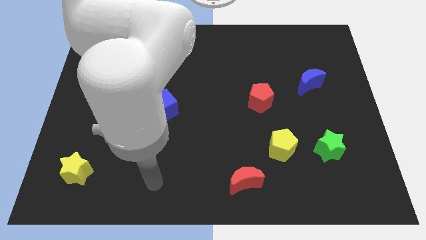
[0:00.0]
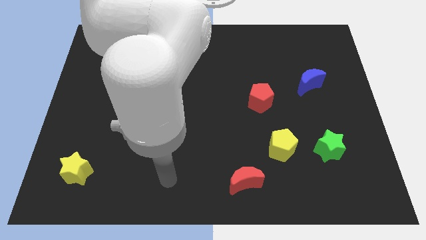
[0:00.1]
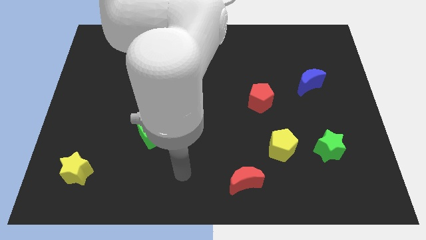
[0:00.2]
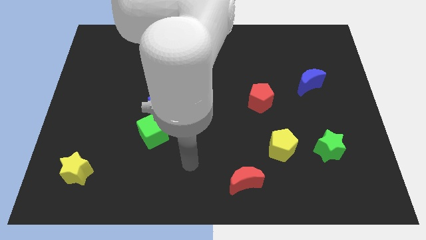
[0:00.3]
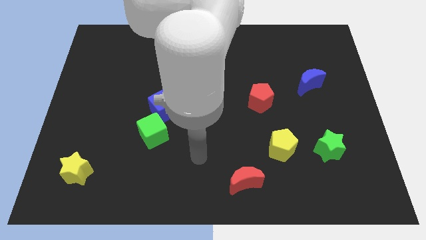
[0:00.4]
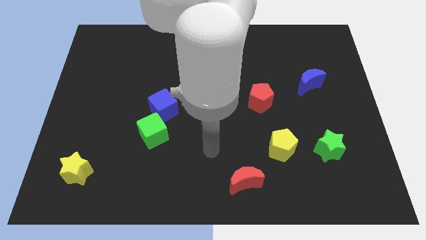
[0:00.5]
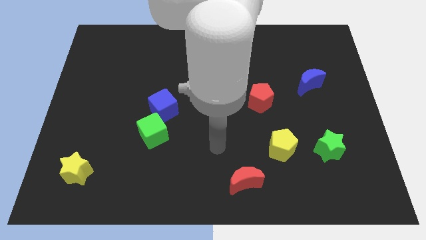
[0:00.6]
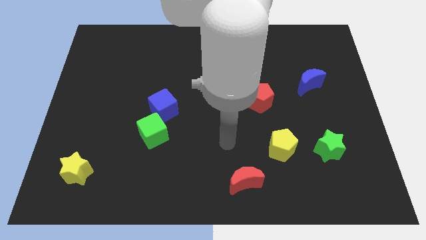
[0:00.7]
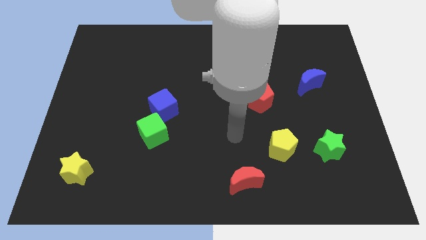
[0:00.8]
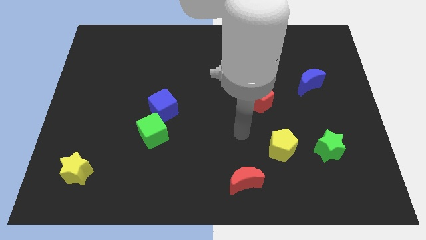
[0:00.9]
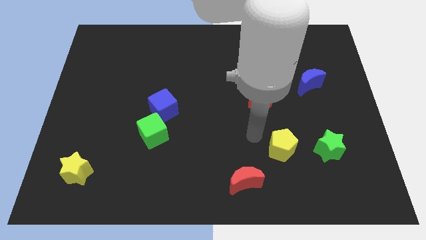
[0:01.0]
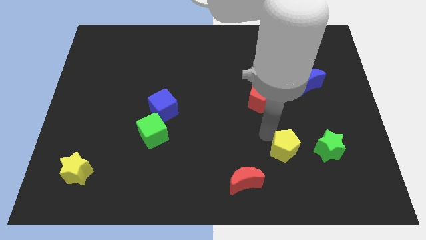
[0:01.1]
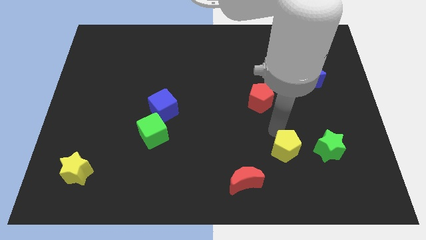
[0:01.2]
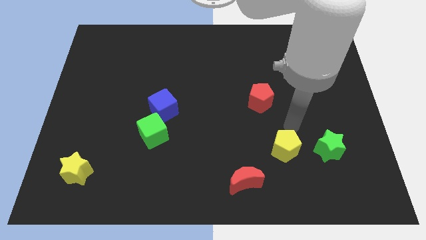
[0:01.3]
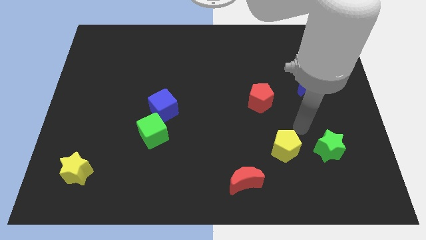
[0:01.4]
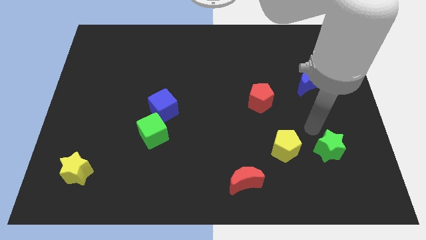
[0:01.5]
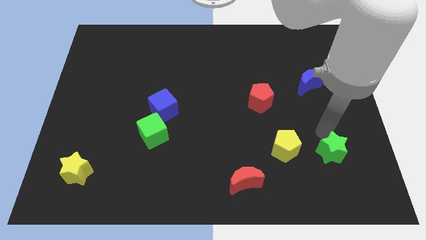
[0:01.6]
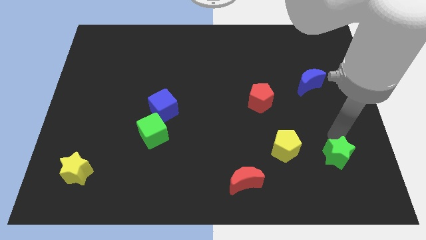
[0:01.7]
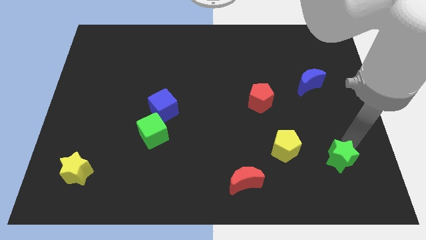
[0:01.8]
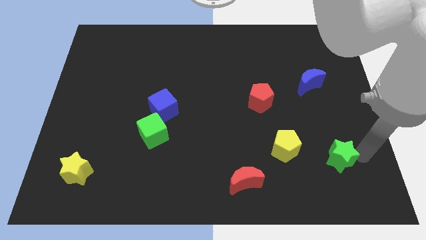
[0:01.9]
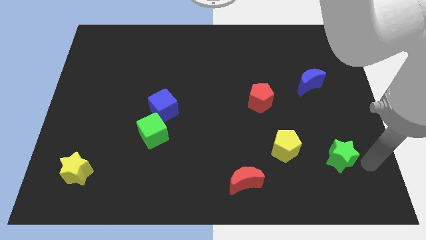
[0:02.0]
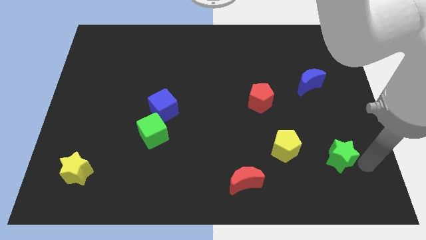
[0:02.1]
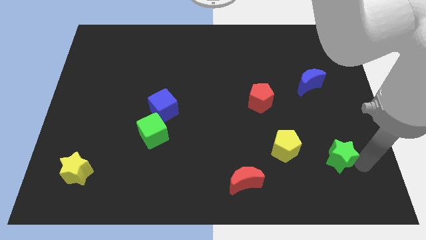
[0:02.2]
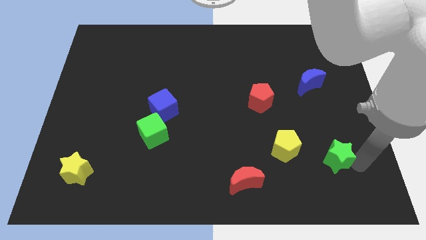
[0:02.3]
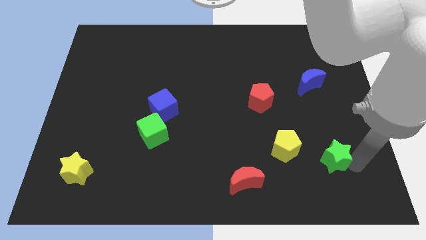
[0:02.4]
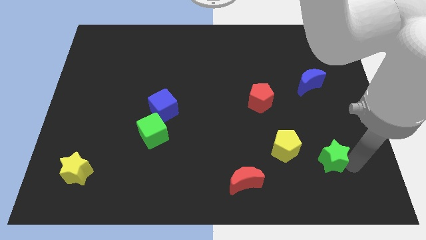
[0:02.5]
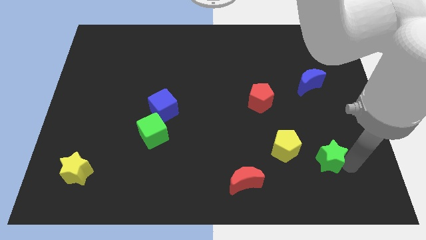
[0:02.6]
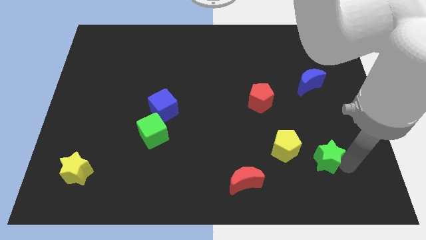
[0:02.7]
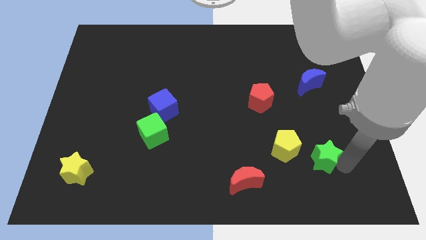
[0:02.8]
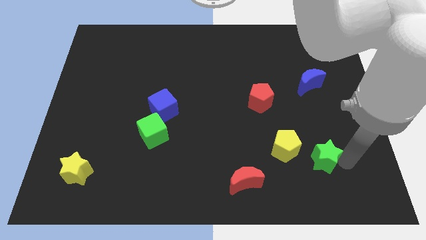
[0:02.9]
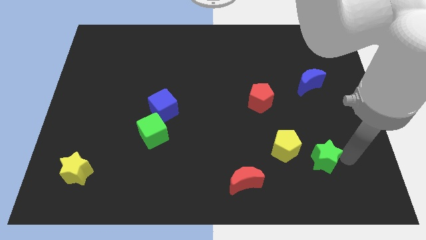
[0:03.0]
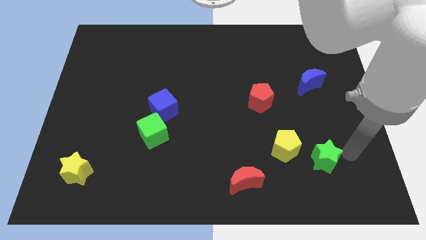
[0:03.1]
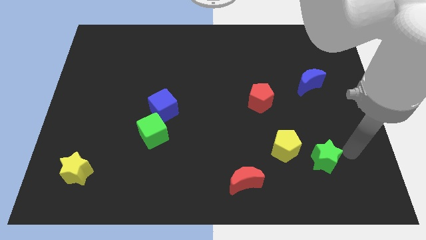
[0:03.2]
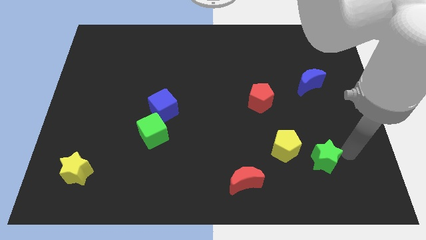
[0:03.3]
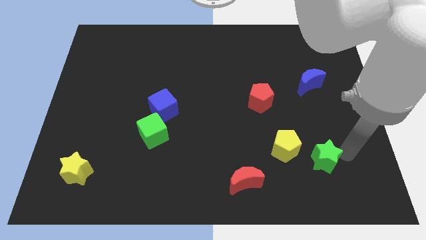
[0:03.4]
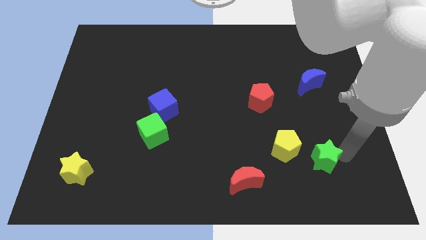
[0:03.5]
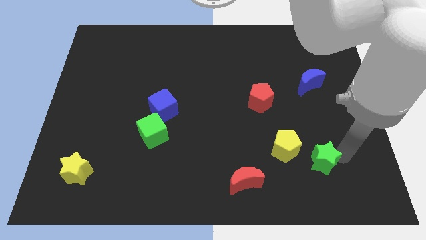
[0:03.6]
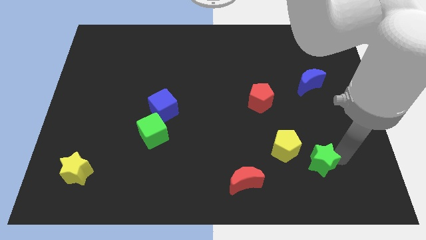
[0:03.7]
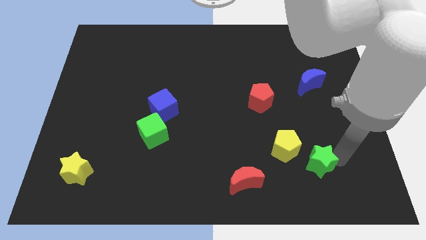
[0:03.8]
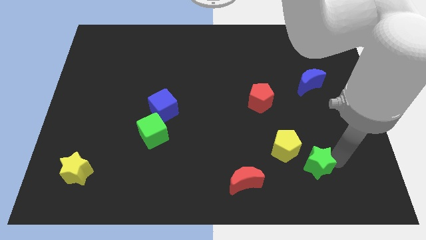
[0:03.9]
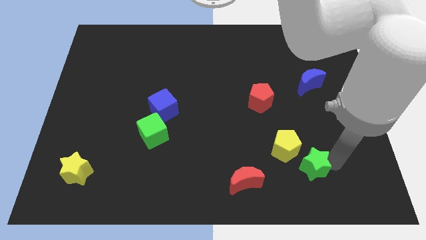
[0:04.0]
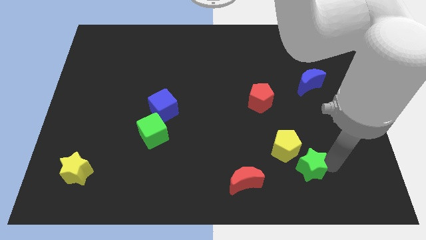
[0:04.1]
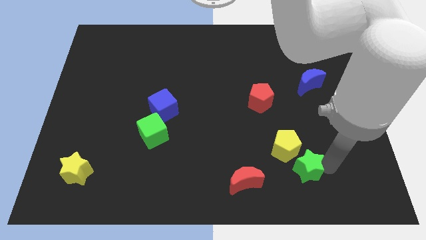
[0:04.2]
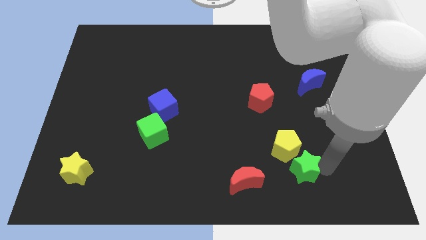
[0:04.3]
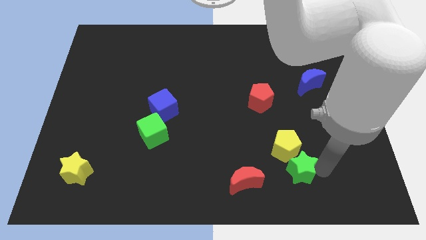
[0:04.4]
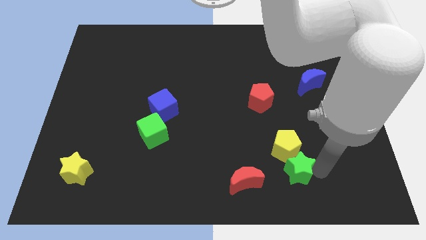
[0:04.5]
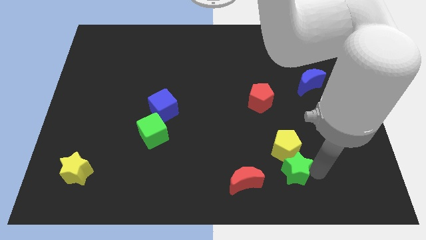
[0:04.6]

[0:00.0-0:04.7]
move the green star to the left a little bit

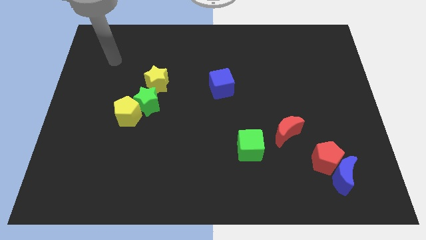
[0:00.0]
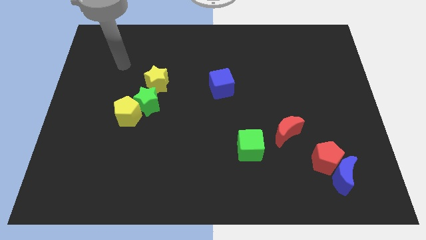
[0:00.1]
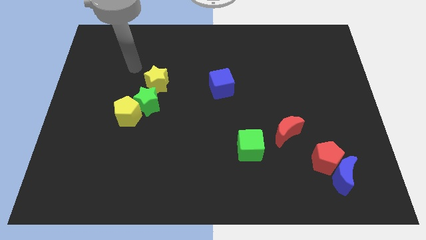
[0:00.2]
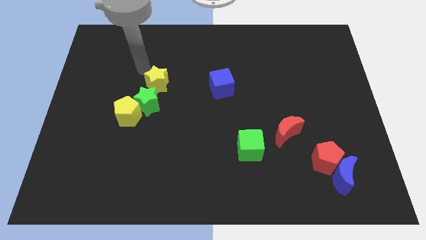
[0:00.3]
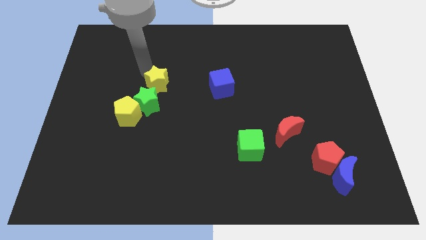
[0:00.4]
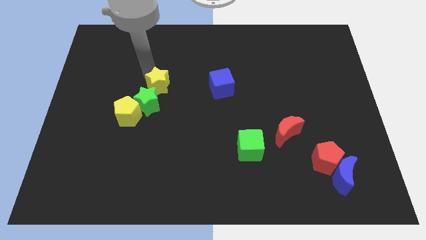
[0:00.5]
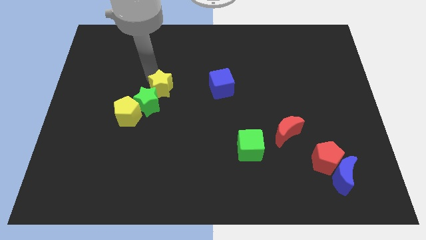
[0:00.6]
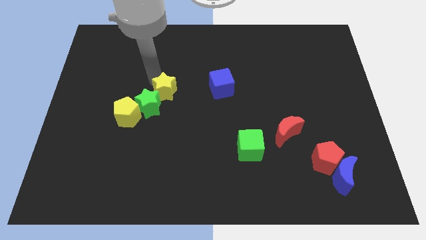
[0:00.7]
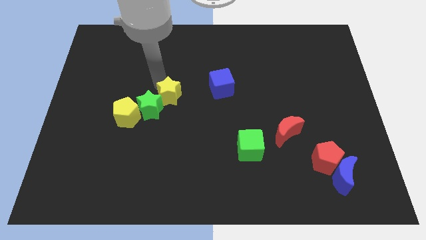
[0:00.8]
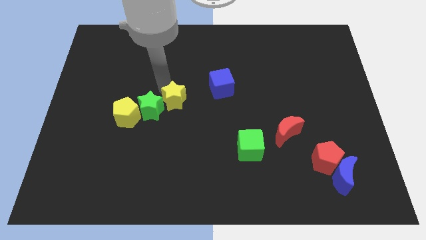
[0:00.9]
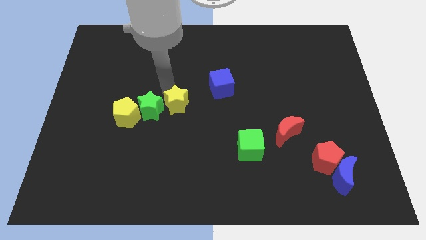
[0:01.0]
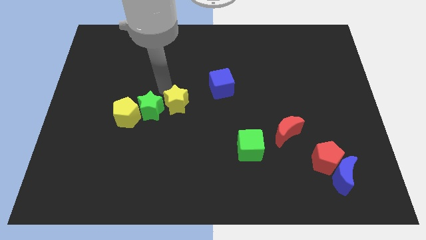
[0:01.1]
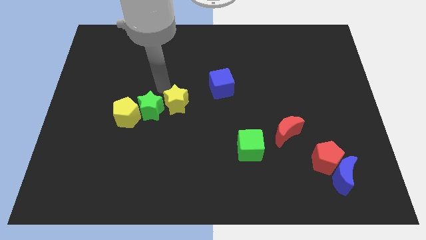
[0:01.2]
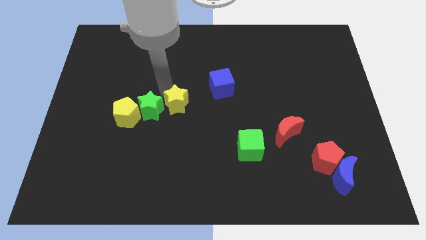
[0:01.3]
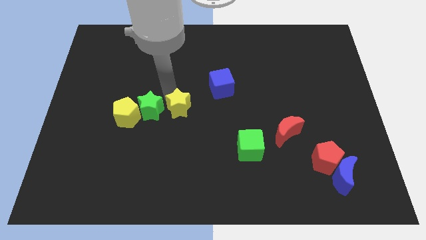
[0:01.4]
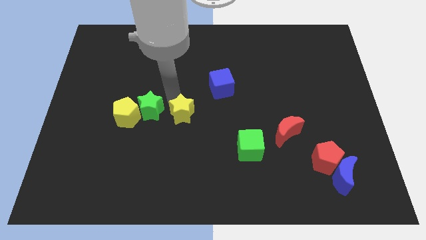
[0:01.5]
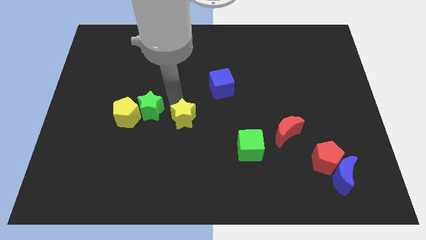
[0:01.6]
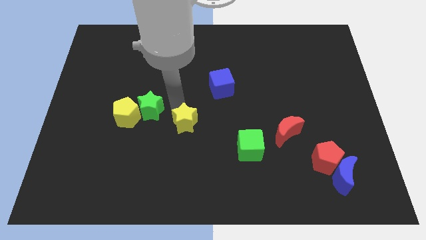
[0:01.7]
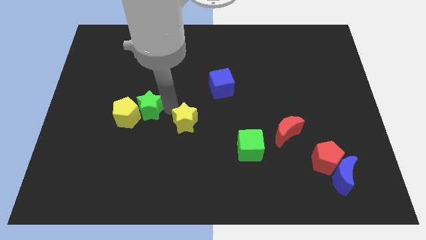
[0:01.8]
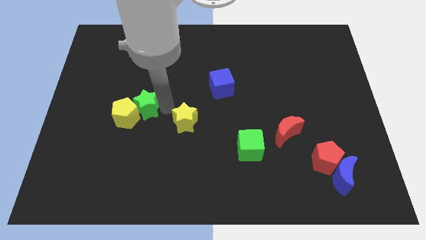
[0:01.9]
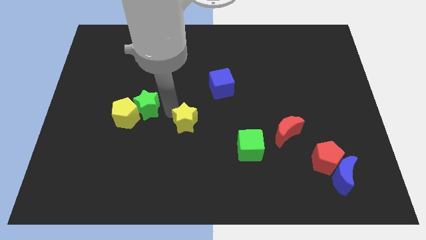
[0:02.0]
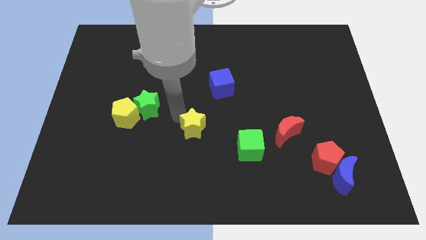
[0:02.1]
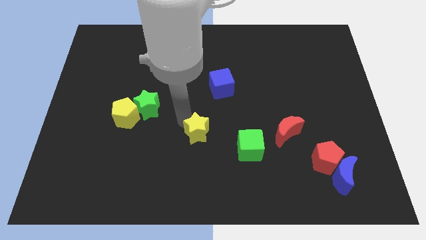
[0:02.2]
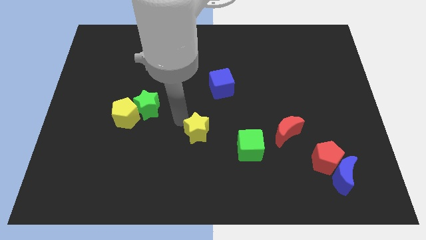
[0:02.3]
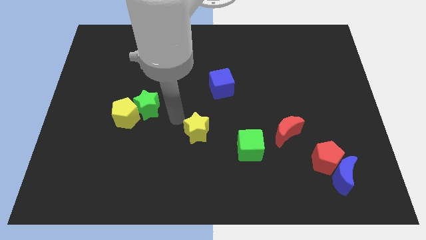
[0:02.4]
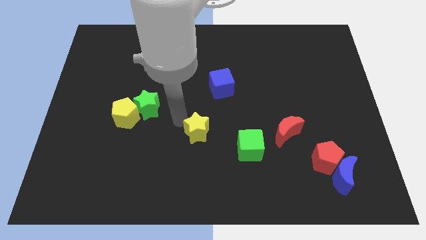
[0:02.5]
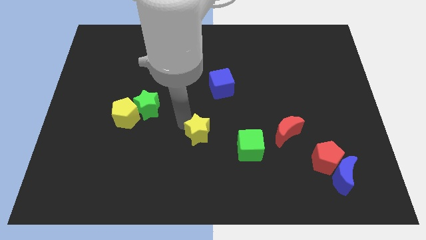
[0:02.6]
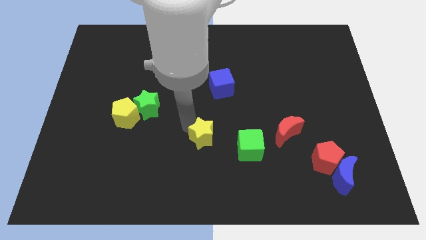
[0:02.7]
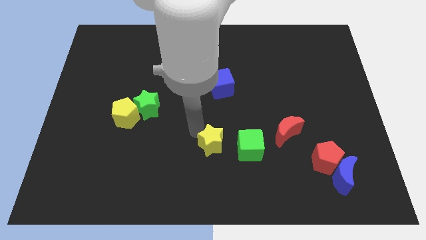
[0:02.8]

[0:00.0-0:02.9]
push the yellow star downwards and to the right

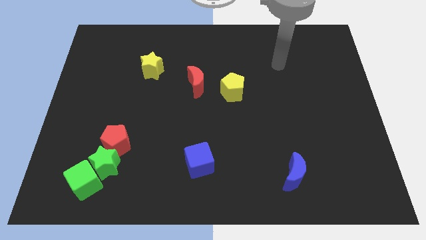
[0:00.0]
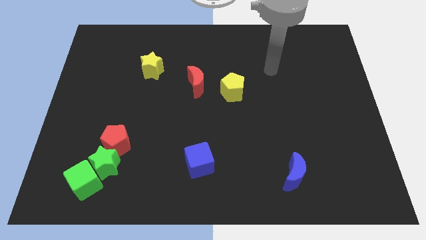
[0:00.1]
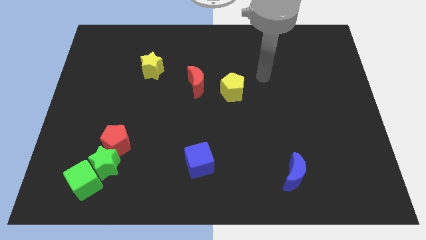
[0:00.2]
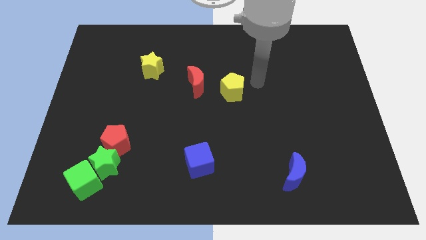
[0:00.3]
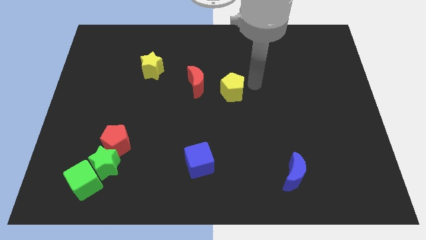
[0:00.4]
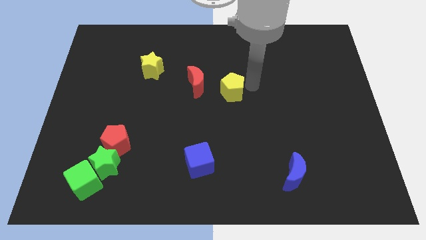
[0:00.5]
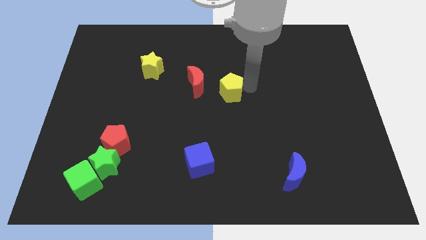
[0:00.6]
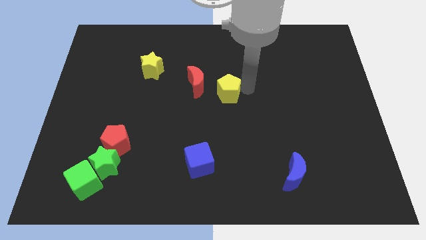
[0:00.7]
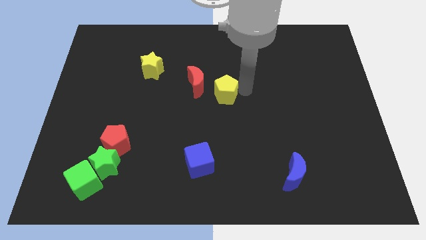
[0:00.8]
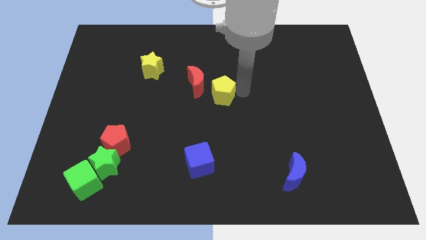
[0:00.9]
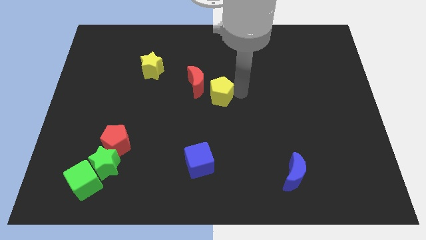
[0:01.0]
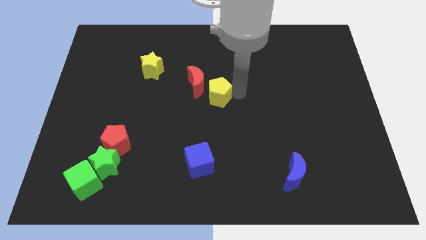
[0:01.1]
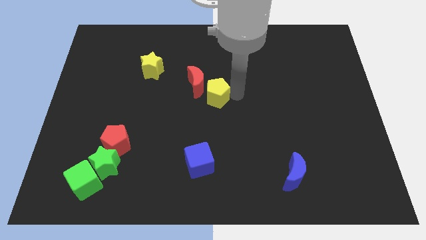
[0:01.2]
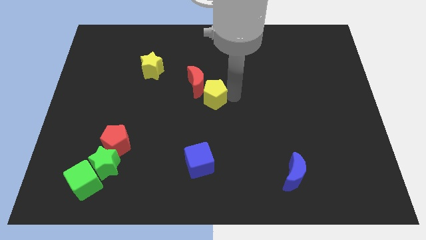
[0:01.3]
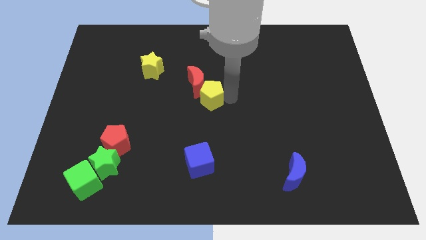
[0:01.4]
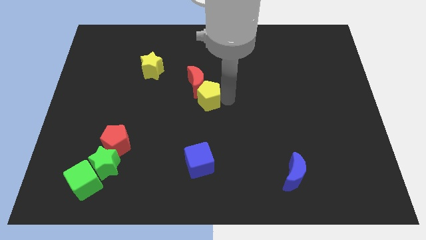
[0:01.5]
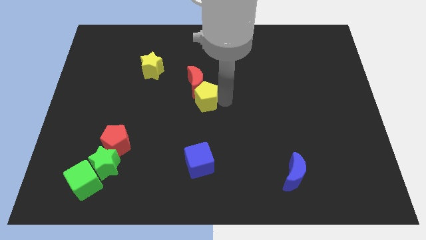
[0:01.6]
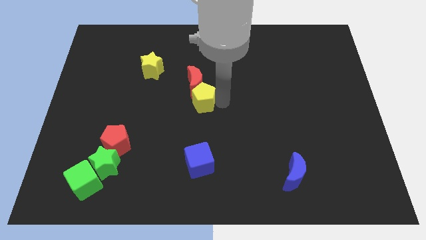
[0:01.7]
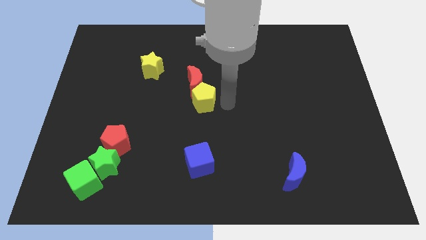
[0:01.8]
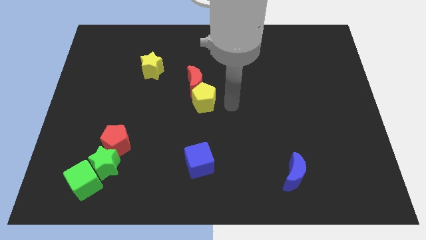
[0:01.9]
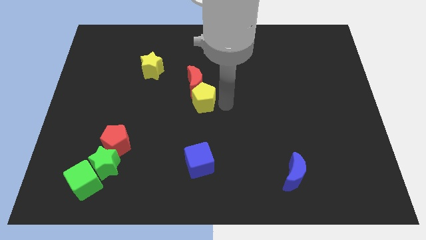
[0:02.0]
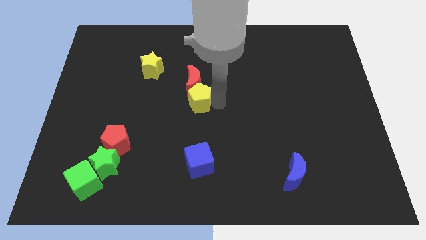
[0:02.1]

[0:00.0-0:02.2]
slightly push the yellow pentagon left
